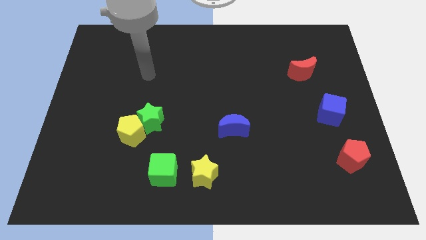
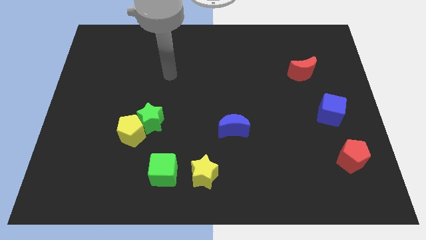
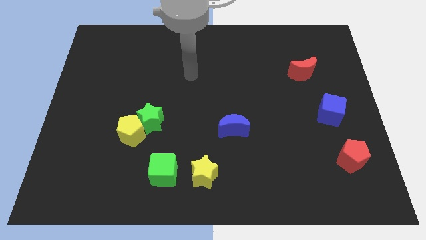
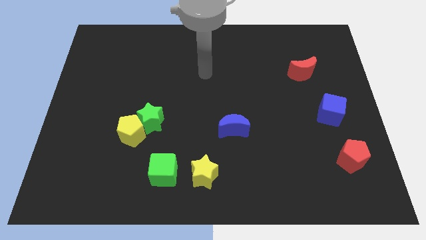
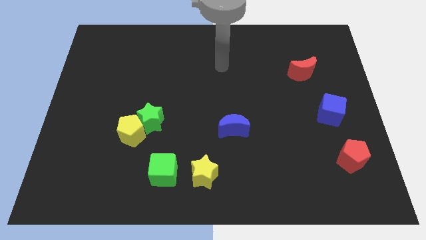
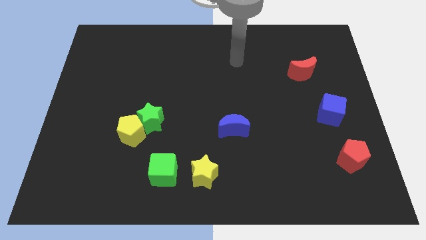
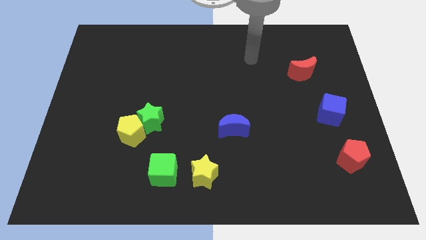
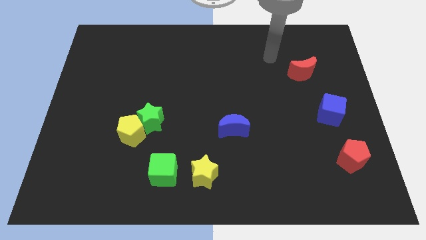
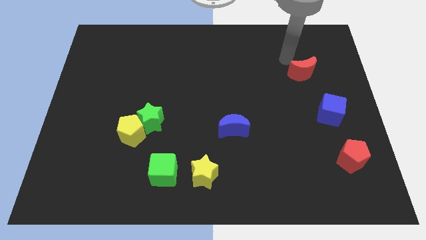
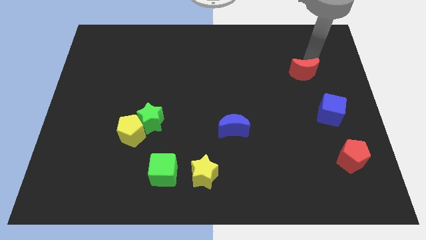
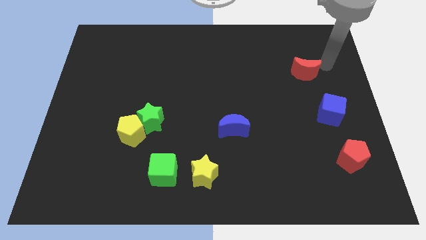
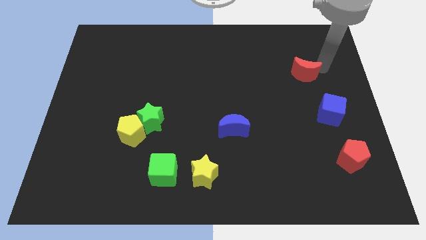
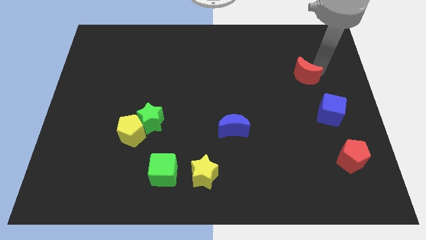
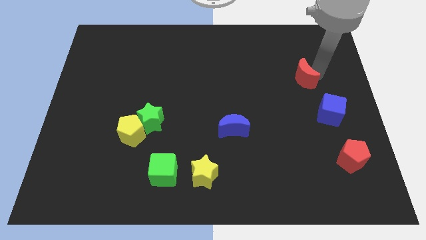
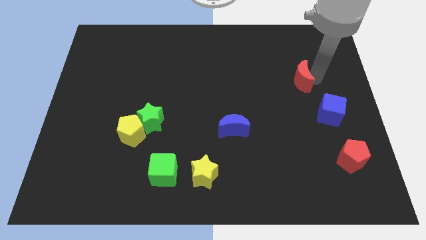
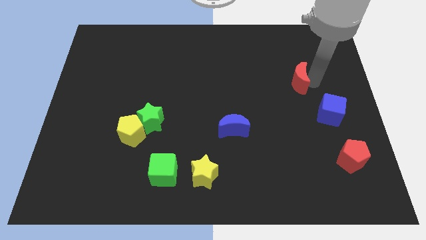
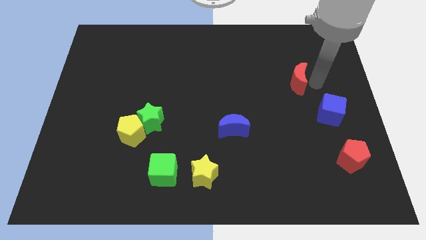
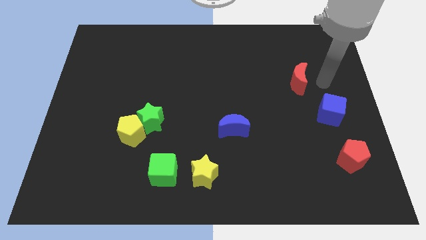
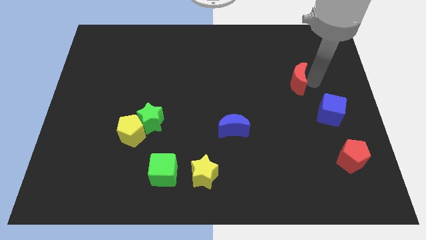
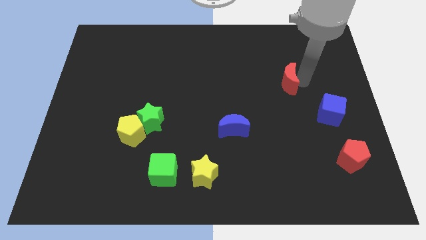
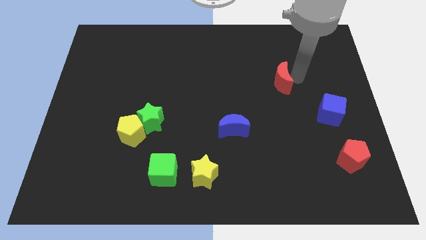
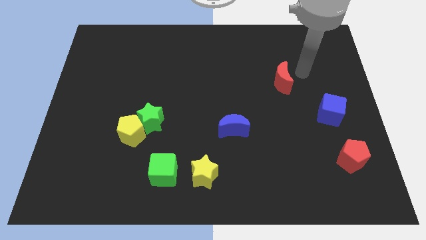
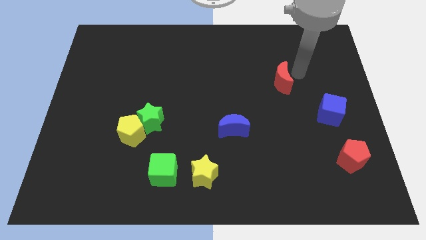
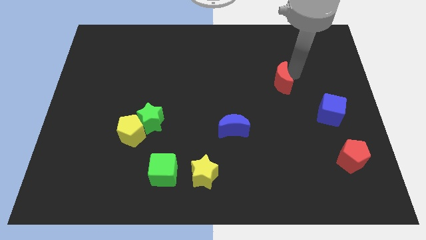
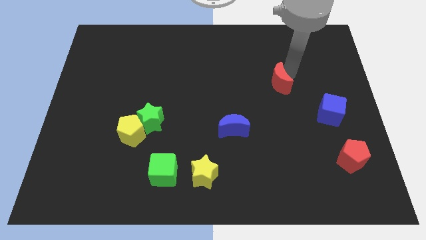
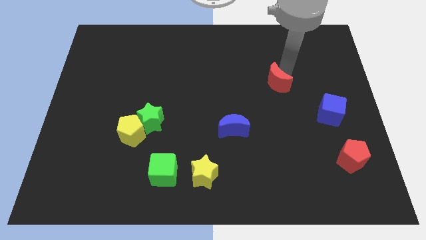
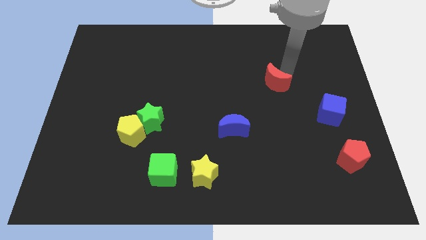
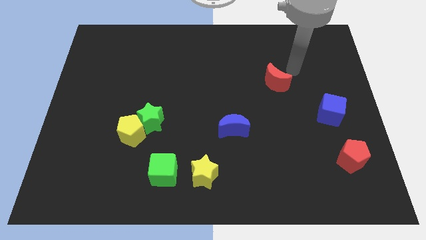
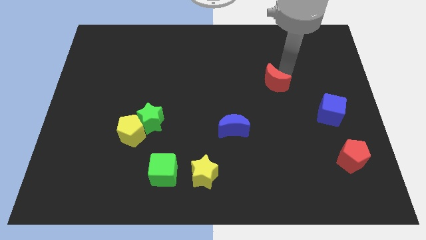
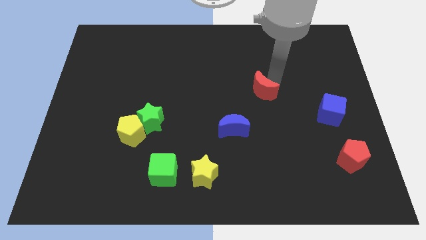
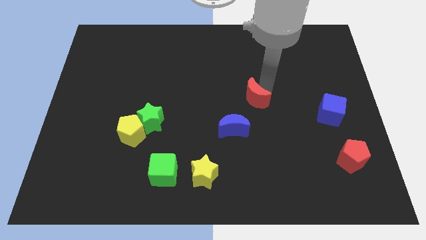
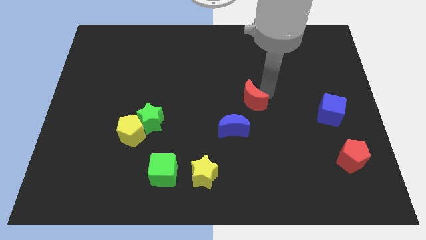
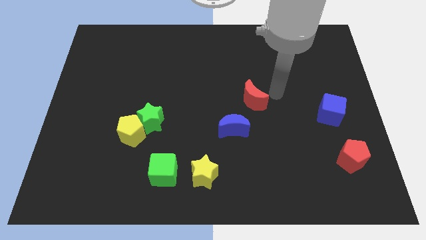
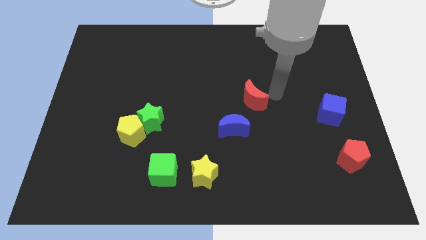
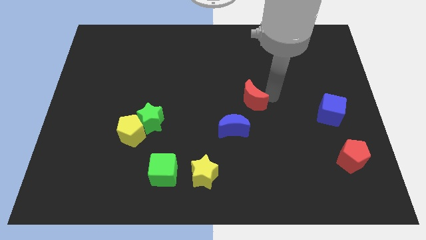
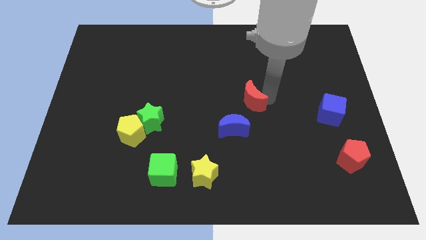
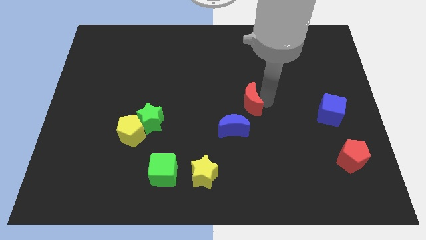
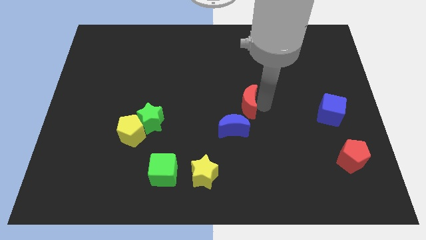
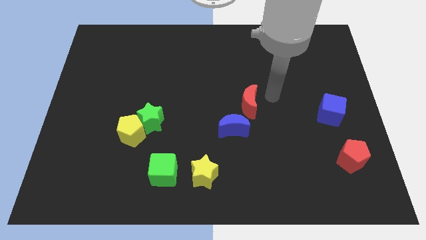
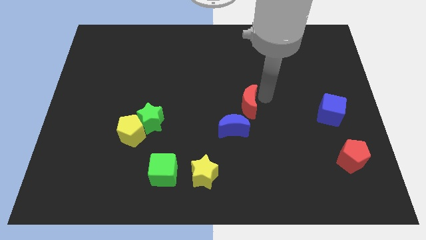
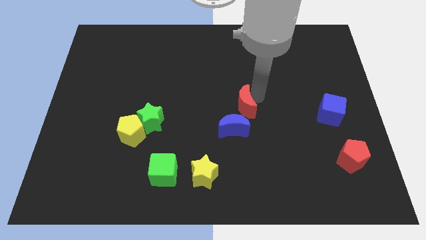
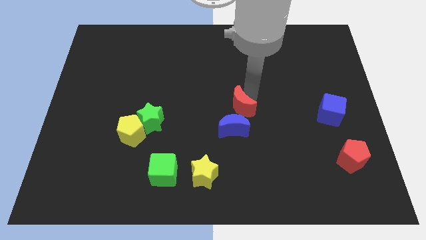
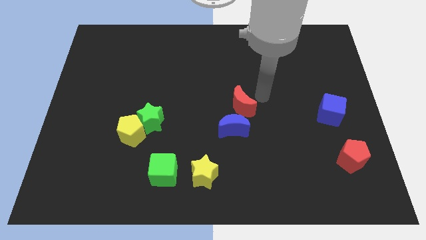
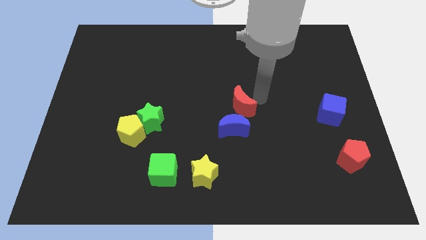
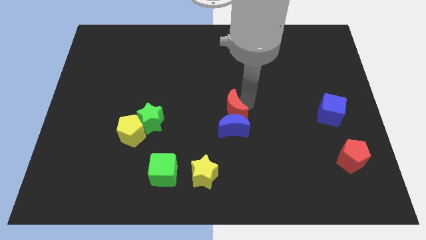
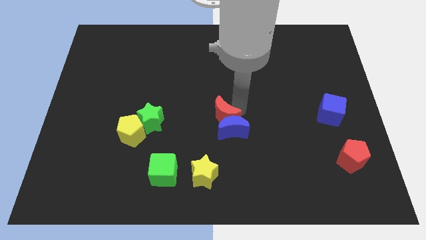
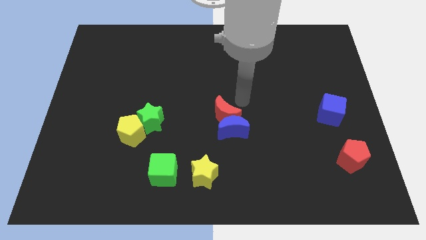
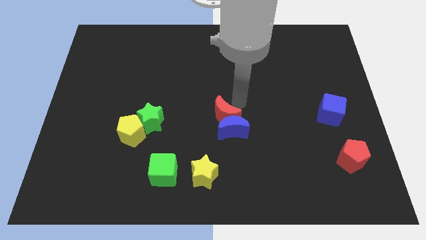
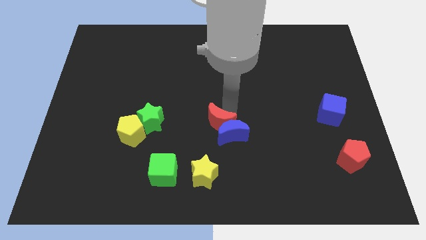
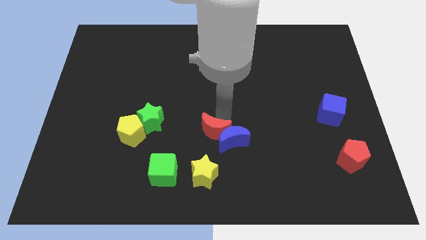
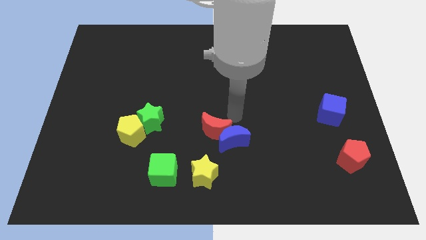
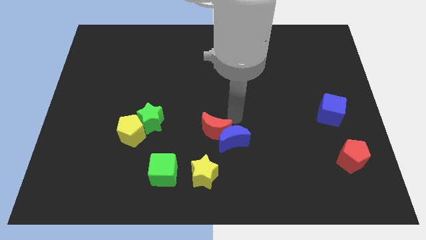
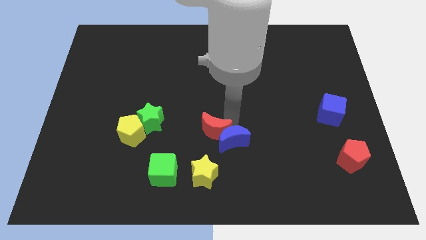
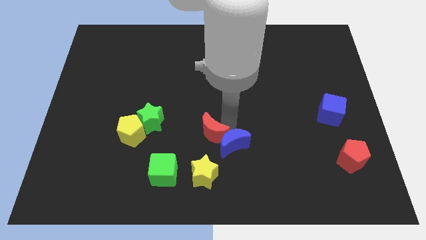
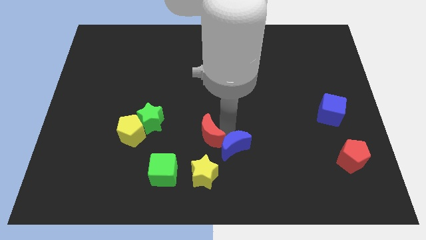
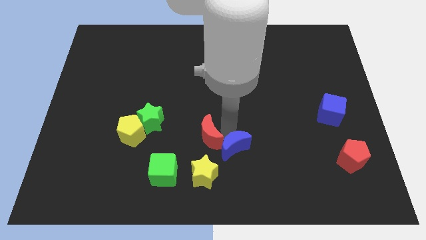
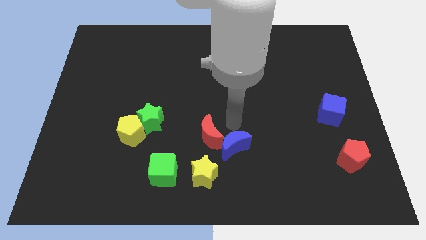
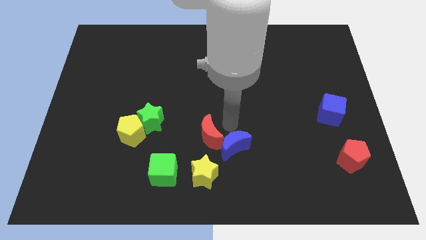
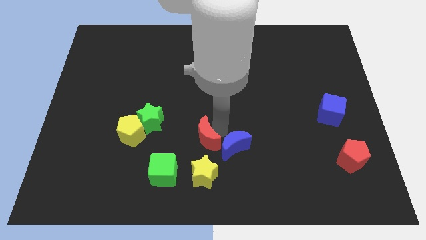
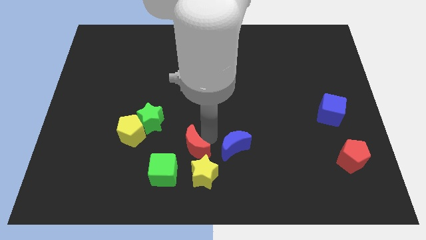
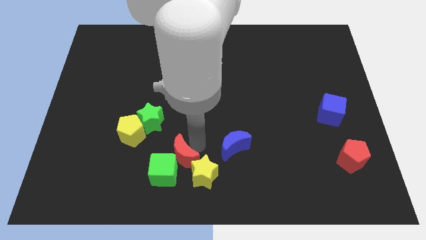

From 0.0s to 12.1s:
slide the red moon close to the green cube

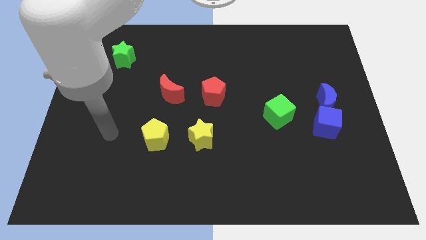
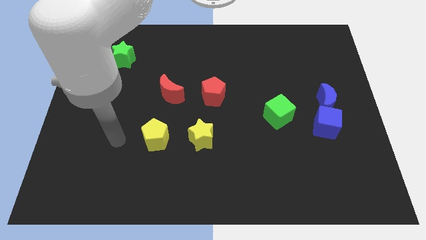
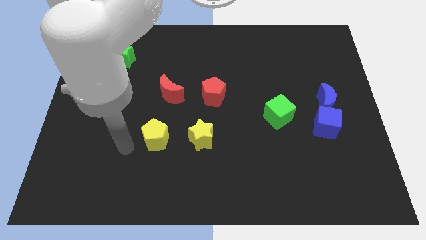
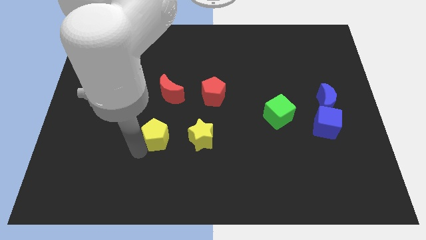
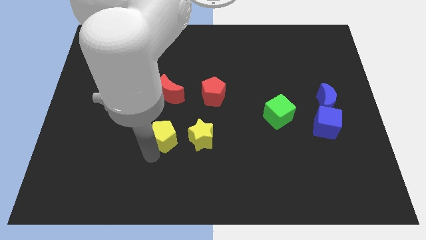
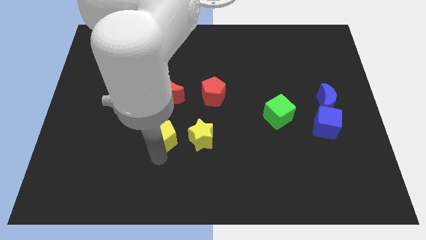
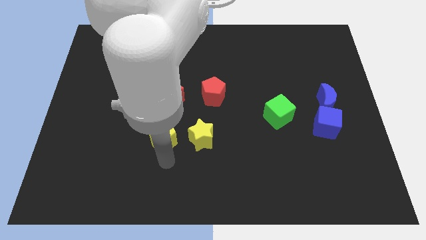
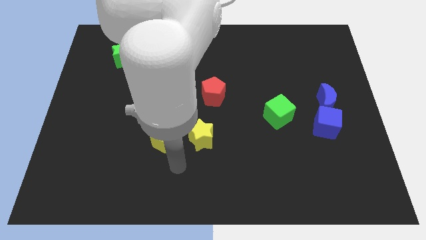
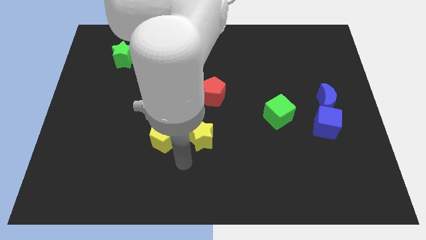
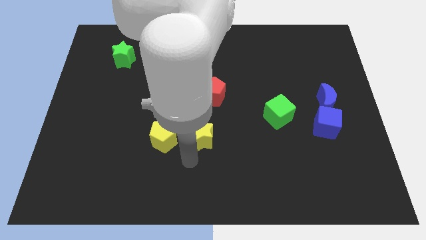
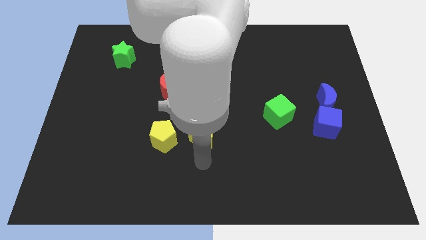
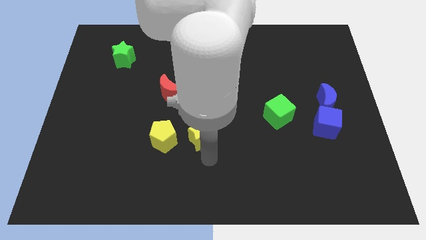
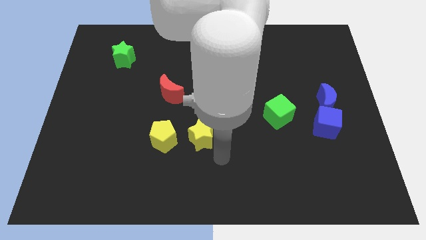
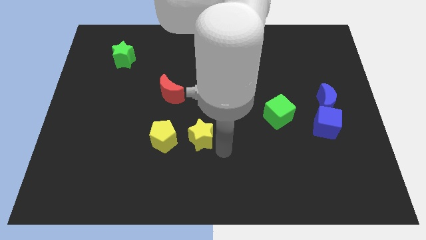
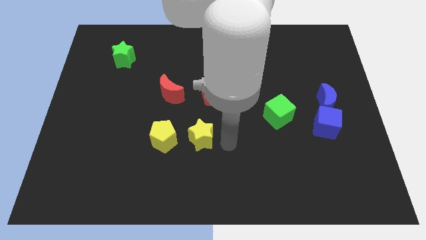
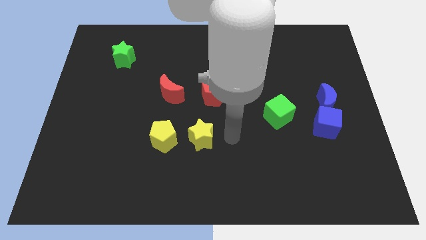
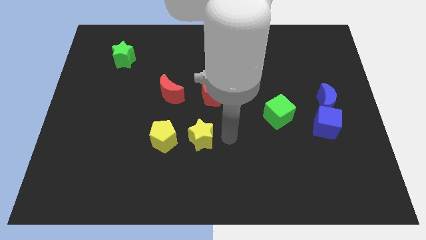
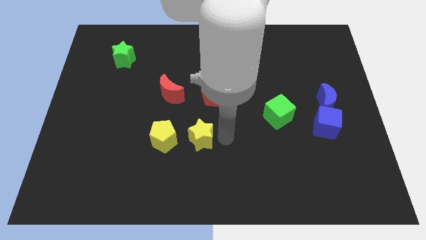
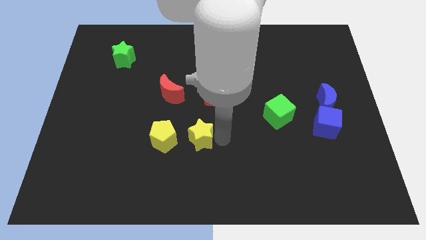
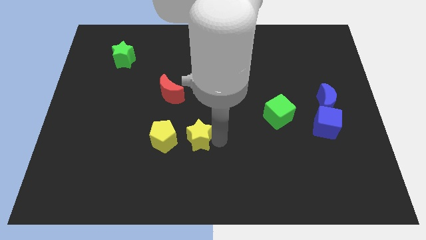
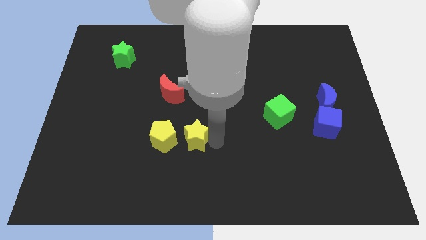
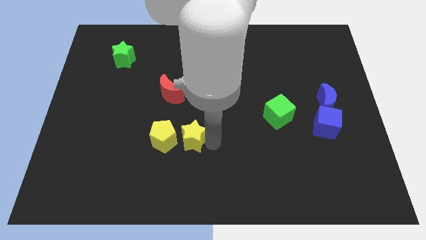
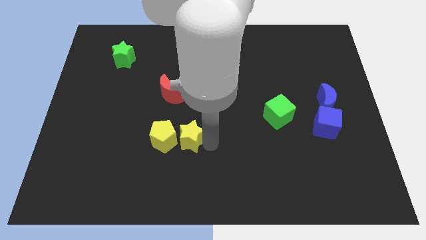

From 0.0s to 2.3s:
put the yellow star next to the yellow pentagon
